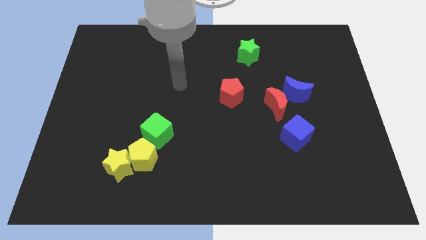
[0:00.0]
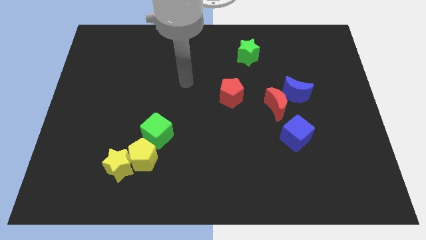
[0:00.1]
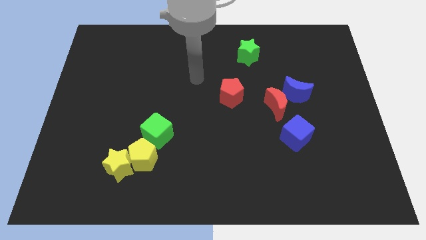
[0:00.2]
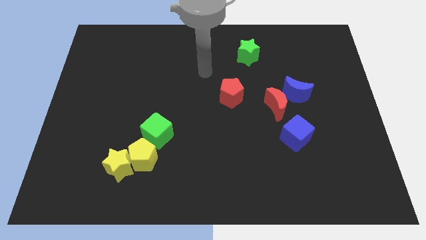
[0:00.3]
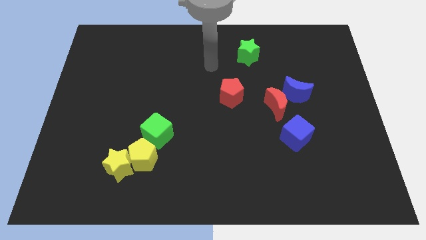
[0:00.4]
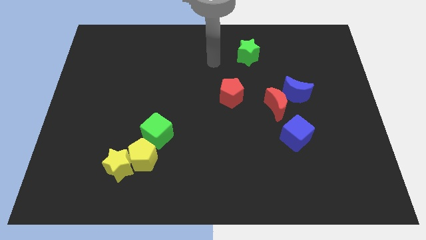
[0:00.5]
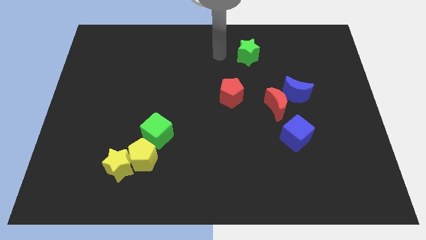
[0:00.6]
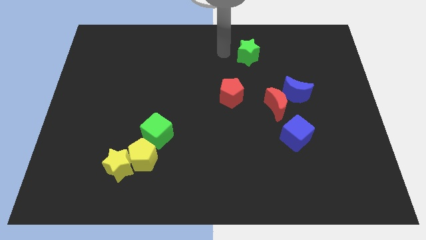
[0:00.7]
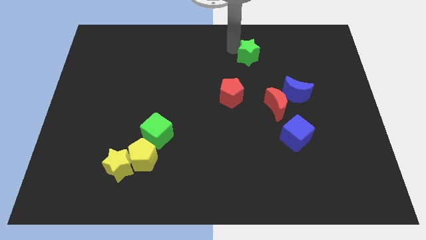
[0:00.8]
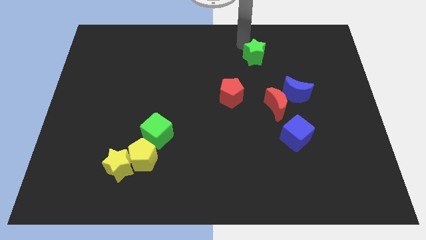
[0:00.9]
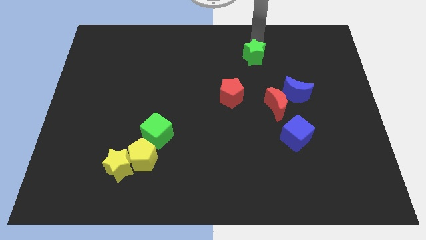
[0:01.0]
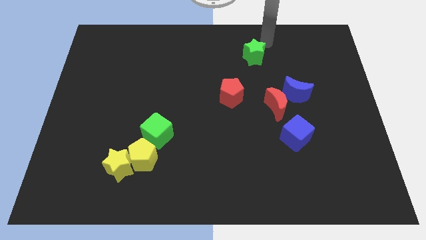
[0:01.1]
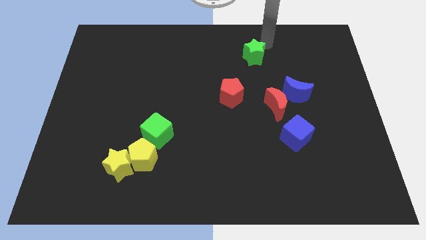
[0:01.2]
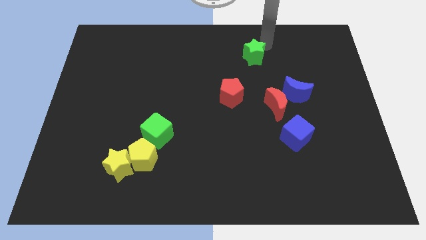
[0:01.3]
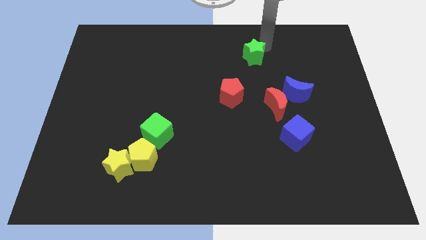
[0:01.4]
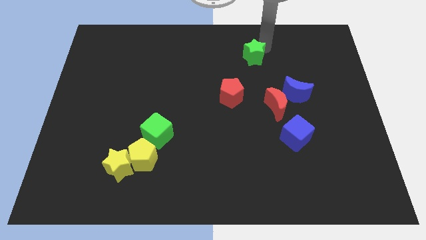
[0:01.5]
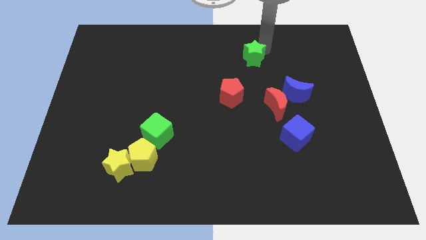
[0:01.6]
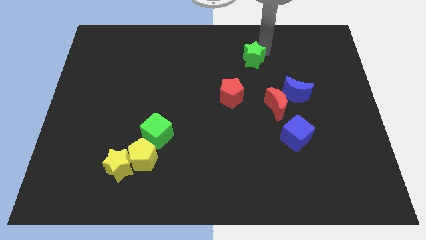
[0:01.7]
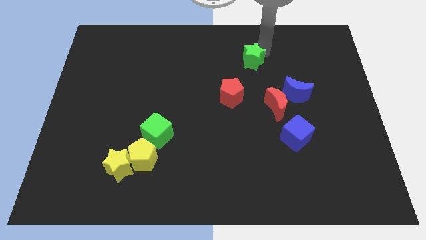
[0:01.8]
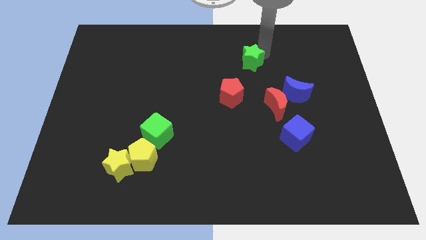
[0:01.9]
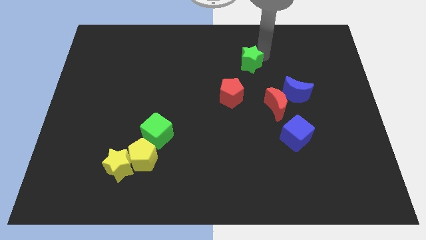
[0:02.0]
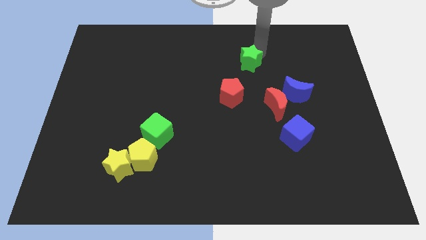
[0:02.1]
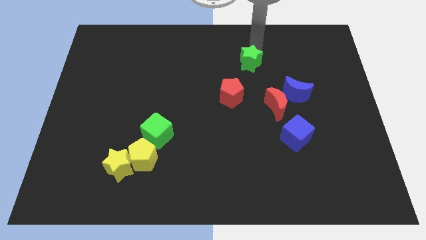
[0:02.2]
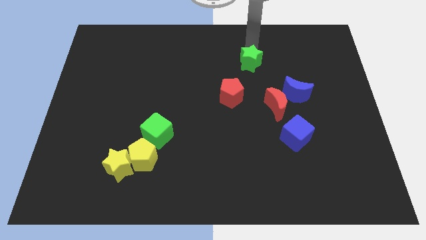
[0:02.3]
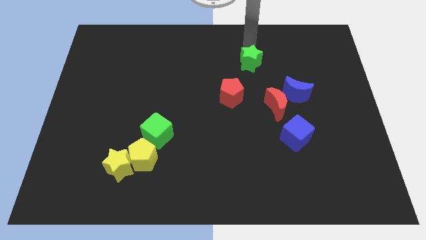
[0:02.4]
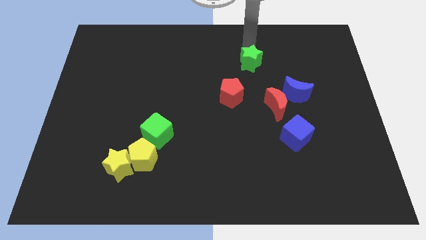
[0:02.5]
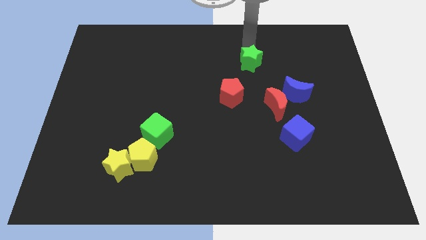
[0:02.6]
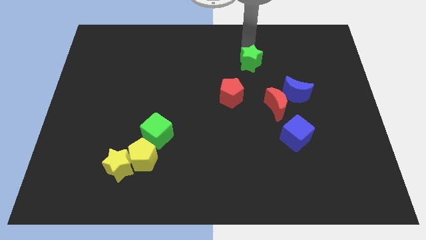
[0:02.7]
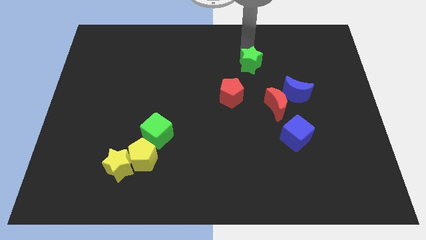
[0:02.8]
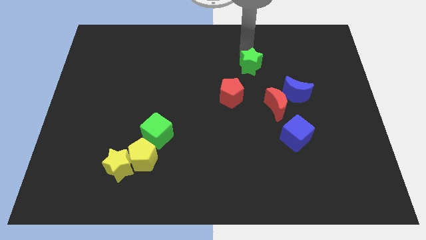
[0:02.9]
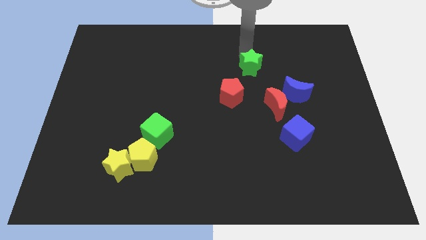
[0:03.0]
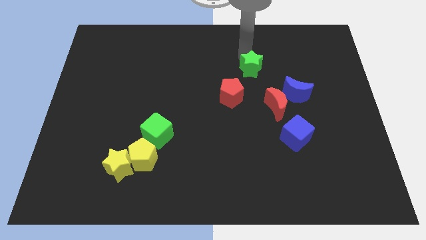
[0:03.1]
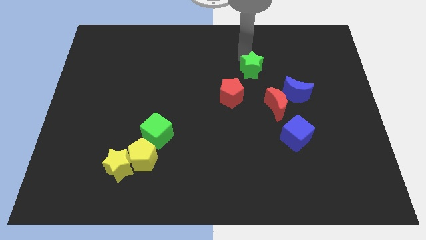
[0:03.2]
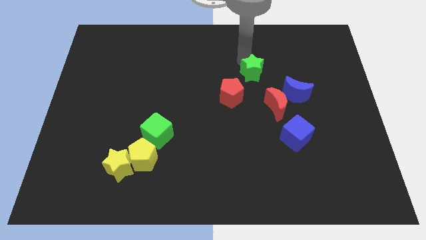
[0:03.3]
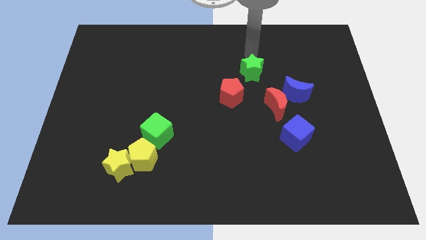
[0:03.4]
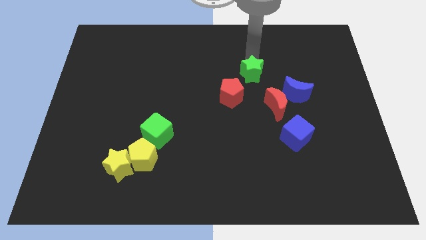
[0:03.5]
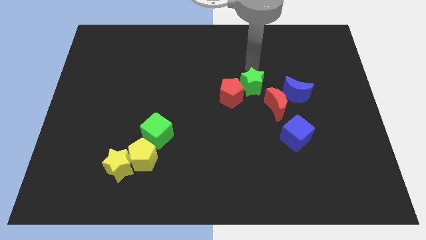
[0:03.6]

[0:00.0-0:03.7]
move the green star down somewhat

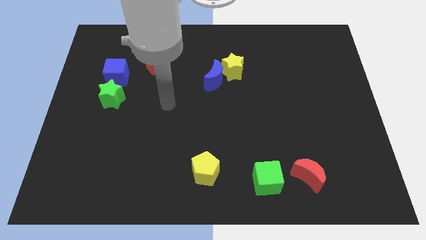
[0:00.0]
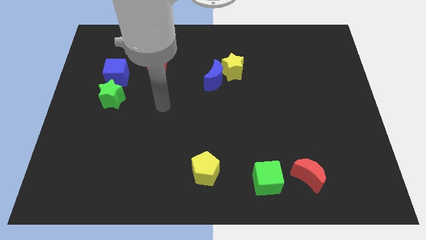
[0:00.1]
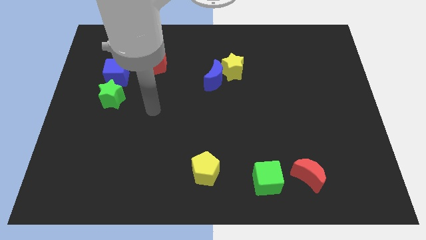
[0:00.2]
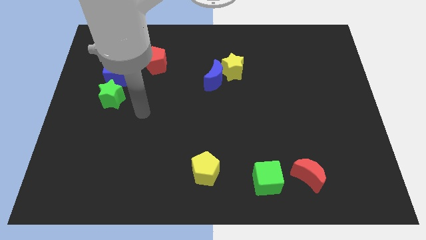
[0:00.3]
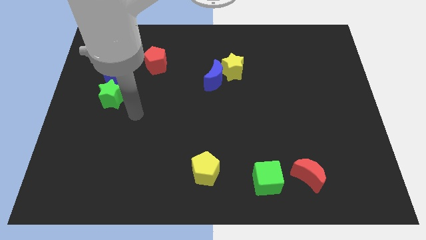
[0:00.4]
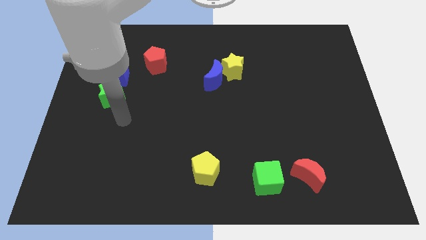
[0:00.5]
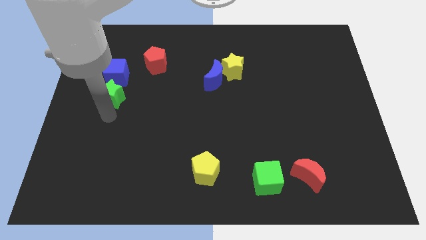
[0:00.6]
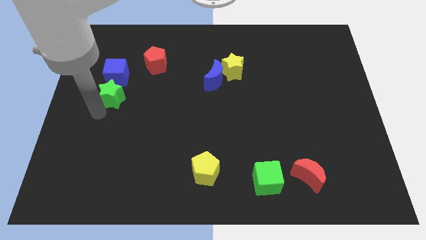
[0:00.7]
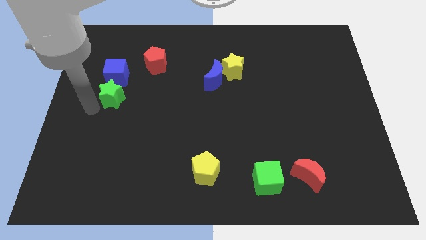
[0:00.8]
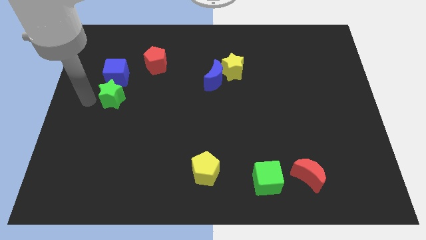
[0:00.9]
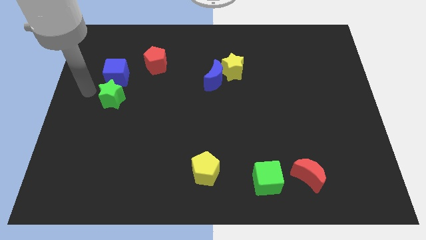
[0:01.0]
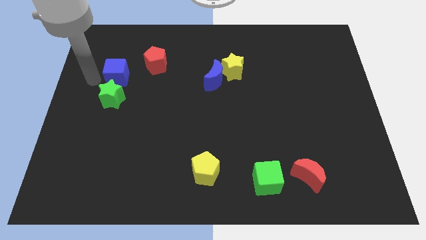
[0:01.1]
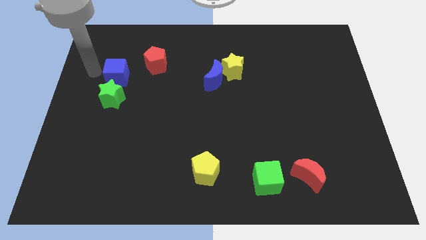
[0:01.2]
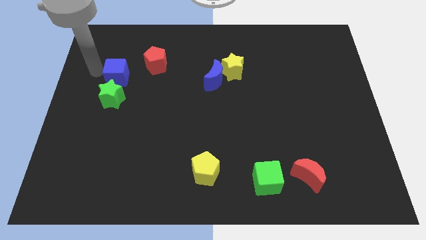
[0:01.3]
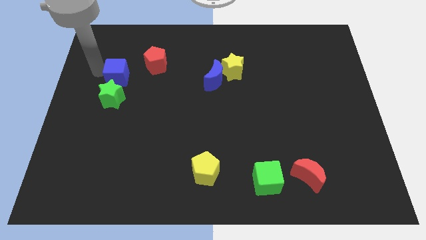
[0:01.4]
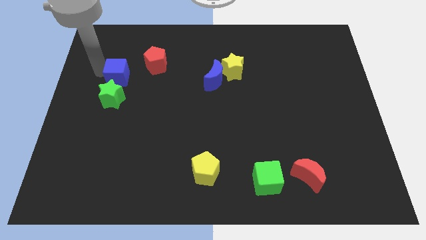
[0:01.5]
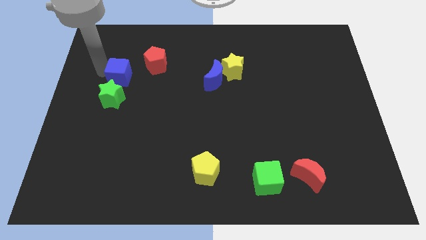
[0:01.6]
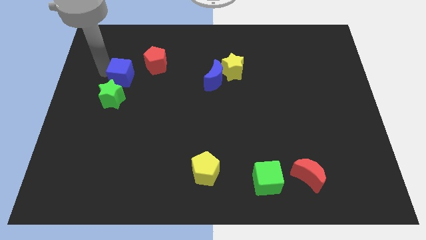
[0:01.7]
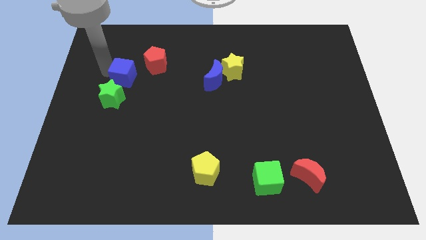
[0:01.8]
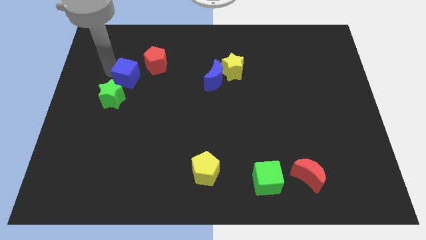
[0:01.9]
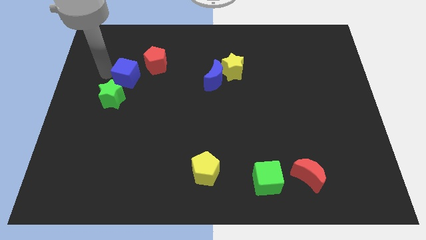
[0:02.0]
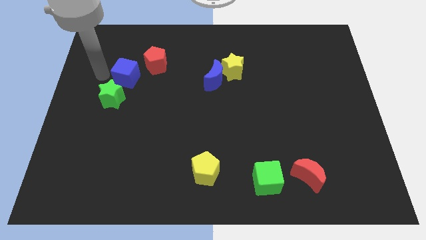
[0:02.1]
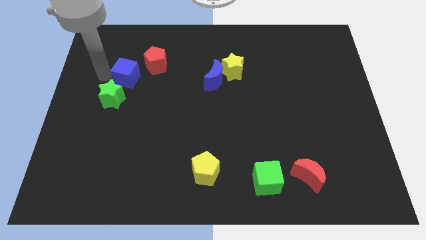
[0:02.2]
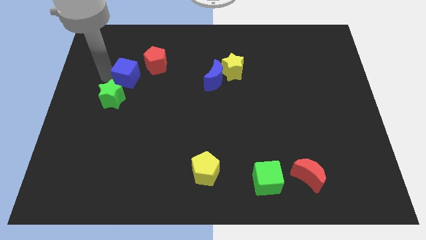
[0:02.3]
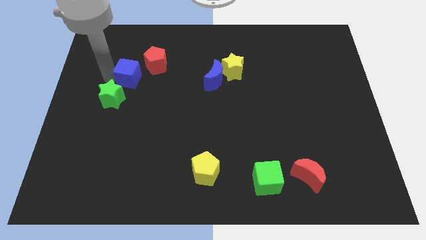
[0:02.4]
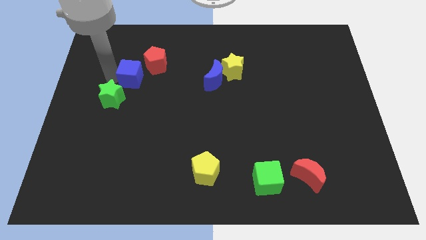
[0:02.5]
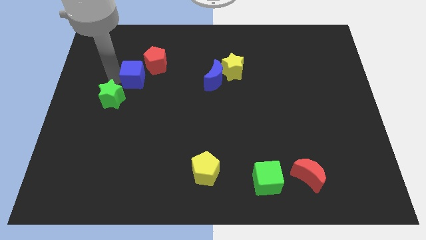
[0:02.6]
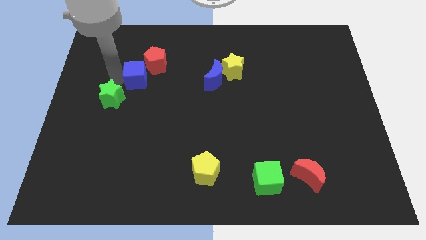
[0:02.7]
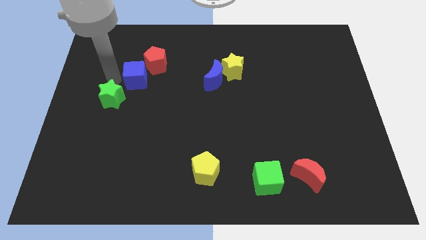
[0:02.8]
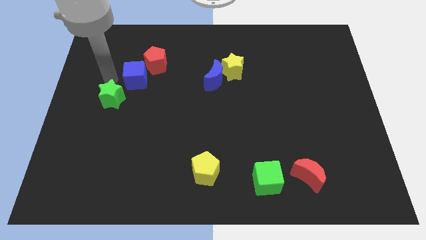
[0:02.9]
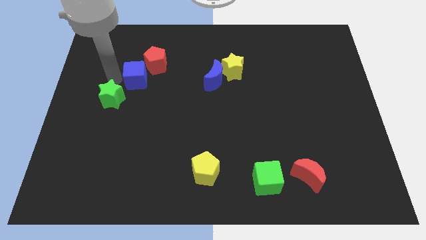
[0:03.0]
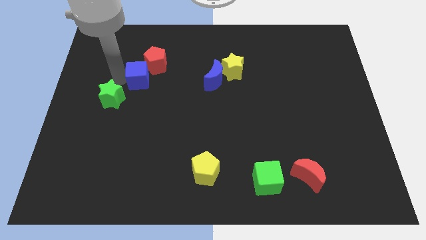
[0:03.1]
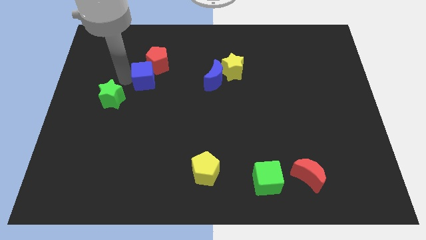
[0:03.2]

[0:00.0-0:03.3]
push the blue cube right somewhat

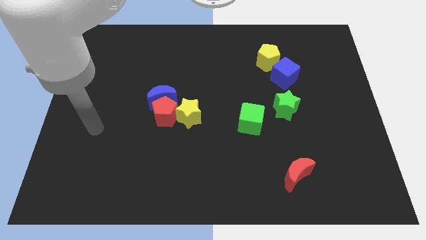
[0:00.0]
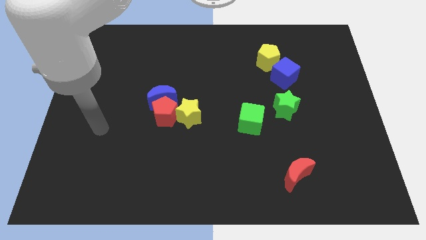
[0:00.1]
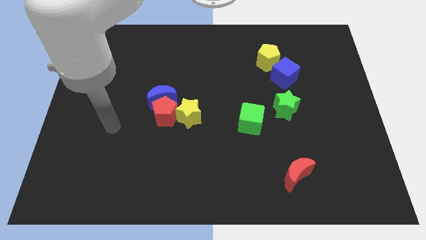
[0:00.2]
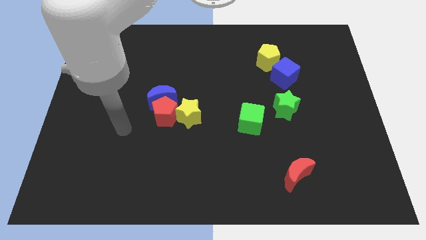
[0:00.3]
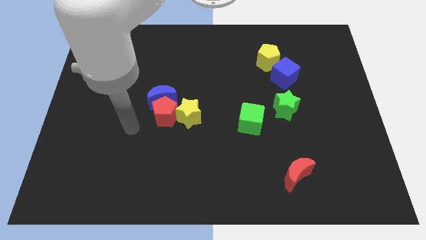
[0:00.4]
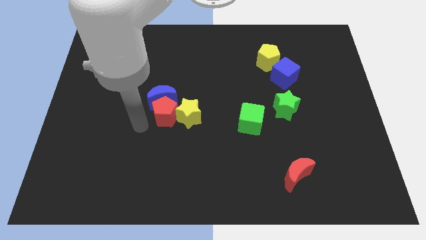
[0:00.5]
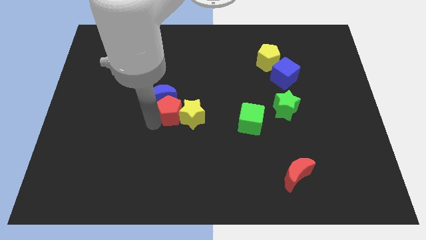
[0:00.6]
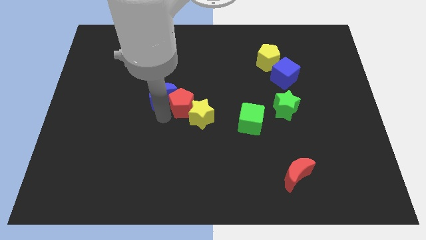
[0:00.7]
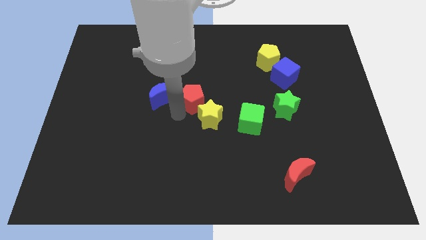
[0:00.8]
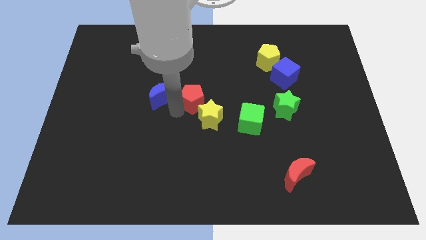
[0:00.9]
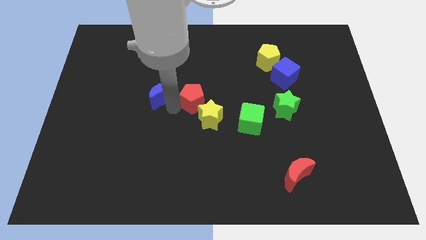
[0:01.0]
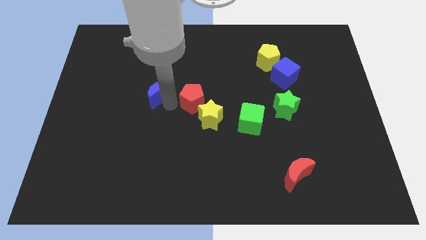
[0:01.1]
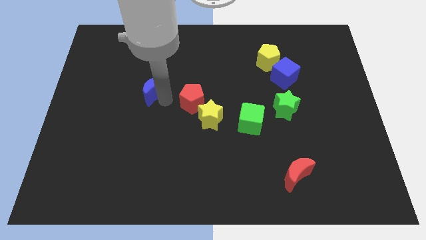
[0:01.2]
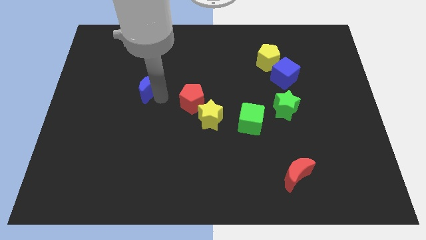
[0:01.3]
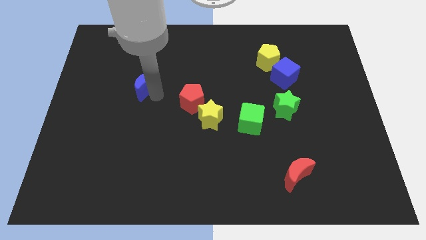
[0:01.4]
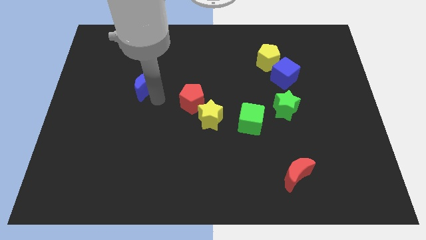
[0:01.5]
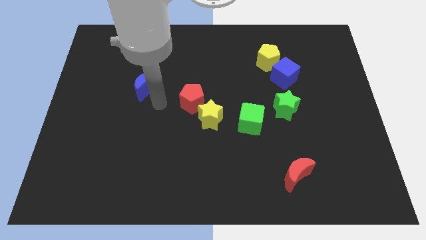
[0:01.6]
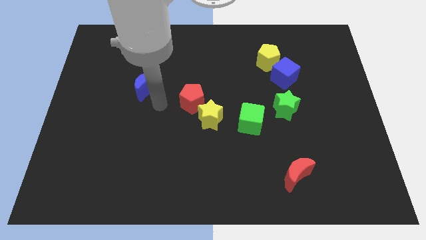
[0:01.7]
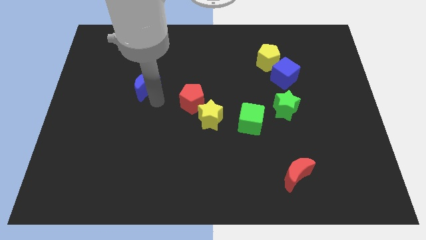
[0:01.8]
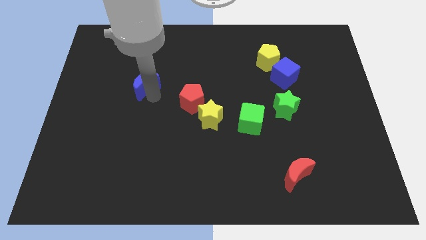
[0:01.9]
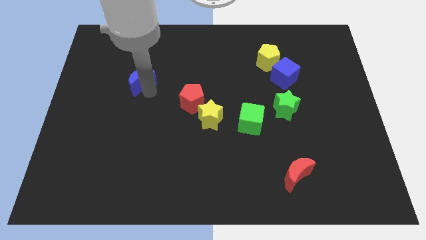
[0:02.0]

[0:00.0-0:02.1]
slightly move the blue moon diagonally up and to the left
